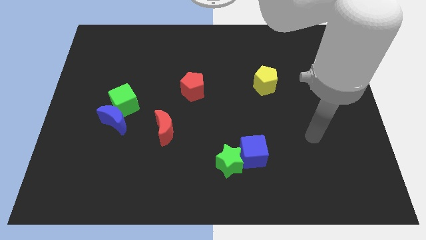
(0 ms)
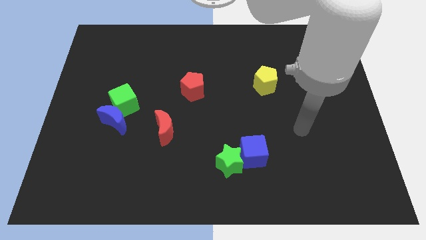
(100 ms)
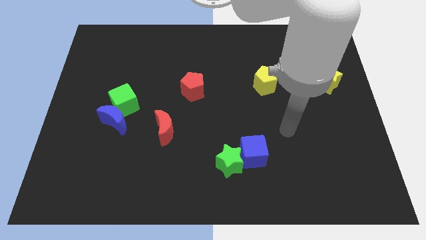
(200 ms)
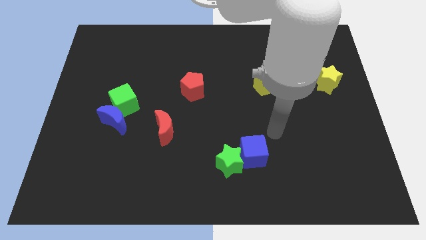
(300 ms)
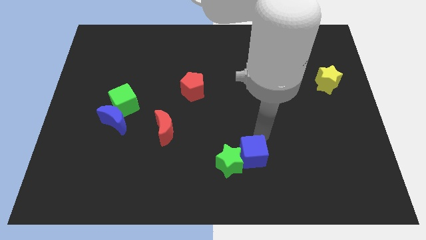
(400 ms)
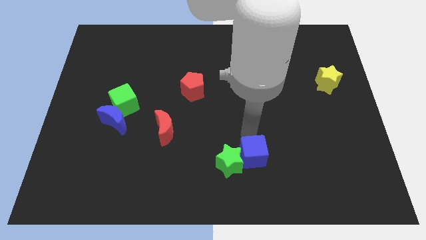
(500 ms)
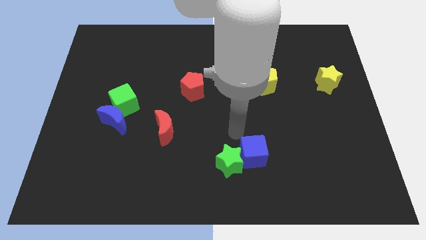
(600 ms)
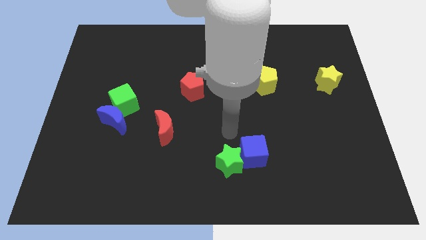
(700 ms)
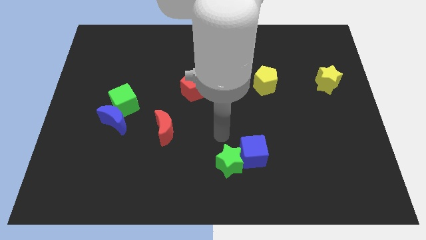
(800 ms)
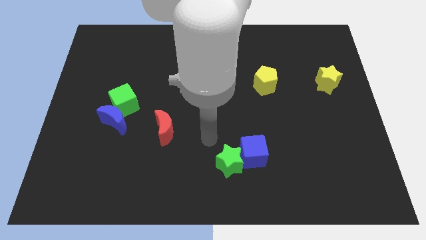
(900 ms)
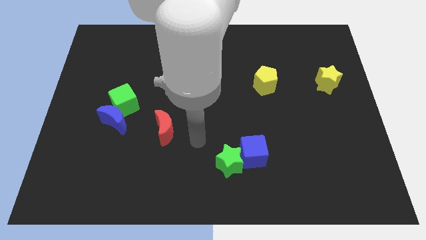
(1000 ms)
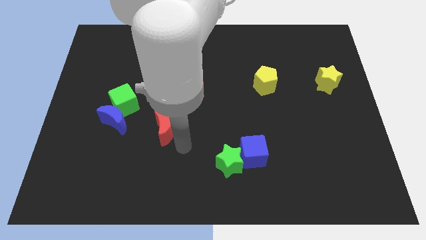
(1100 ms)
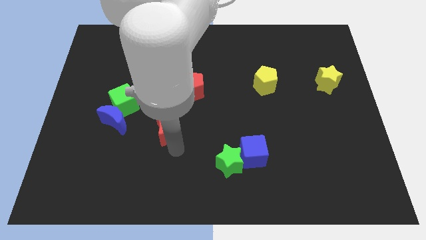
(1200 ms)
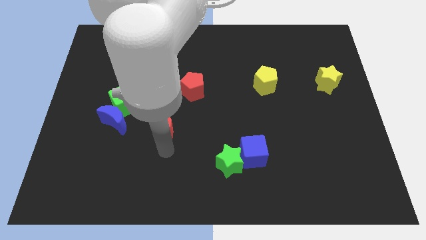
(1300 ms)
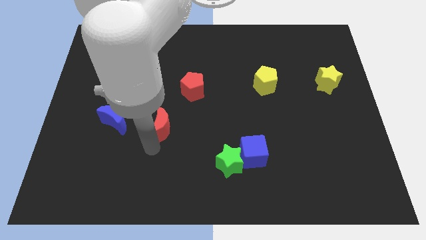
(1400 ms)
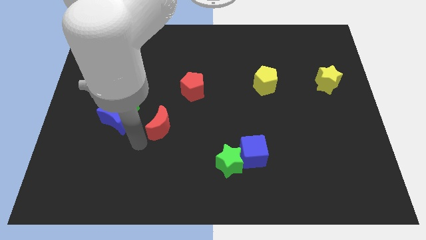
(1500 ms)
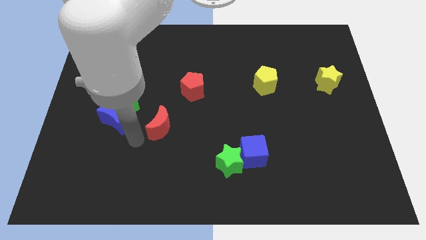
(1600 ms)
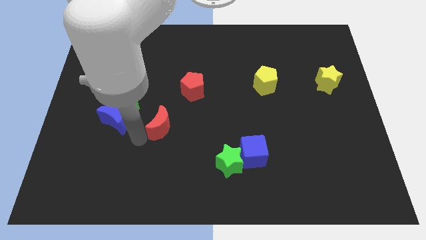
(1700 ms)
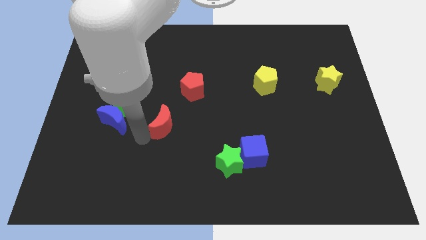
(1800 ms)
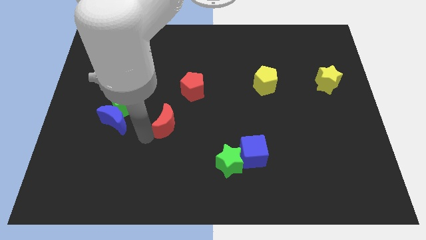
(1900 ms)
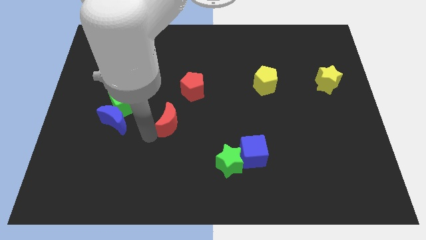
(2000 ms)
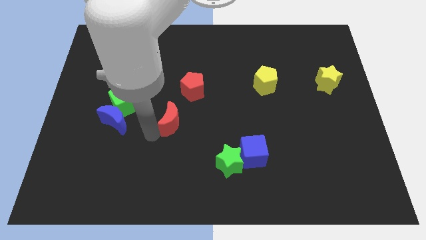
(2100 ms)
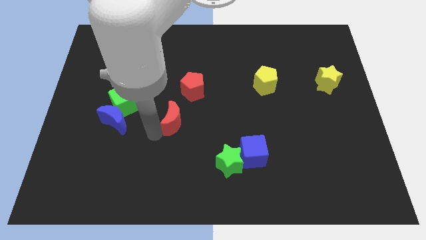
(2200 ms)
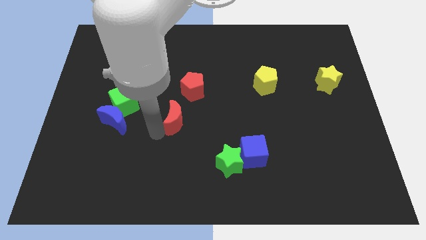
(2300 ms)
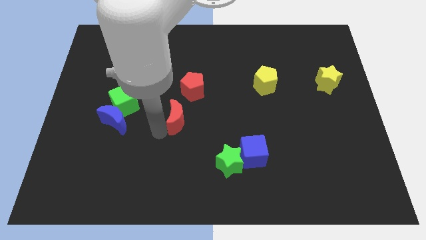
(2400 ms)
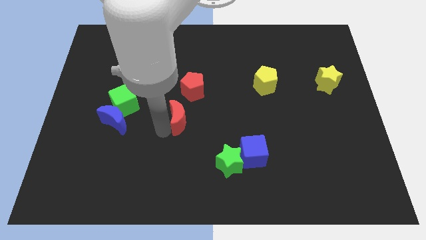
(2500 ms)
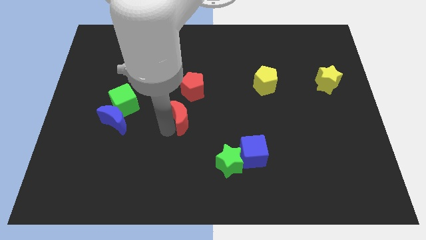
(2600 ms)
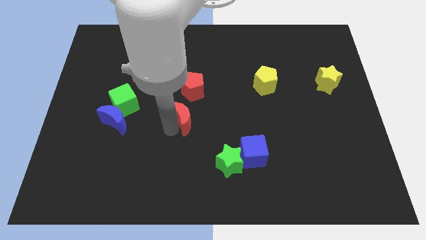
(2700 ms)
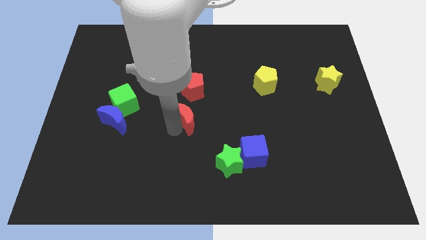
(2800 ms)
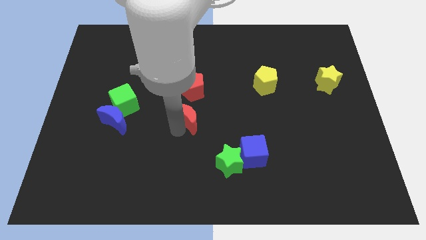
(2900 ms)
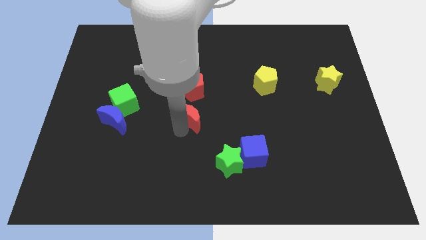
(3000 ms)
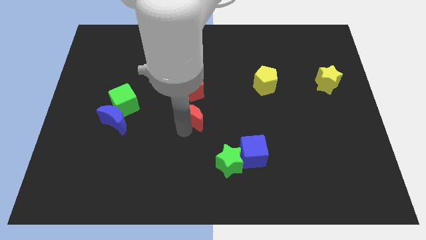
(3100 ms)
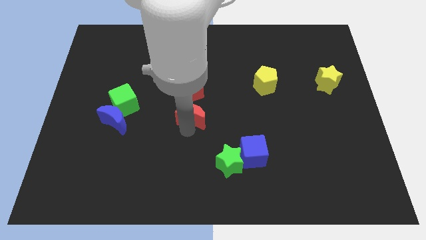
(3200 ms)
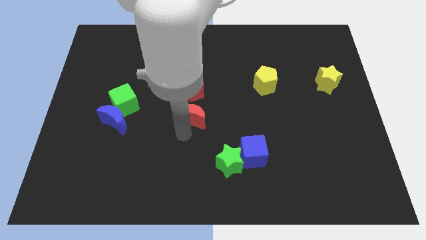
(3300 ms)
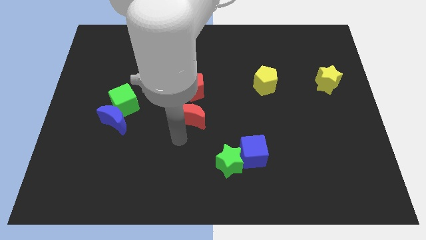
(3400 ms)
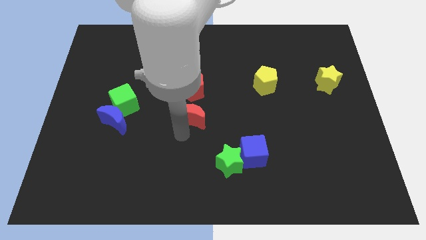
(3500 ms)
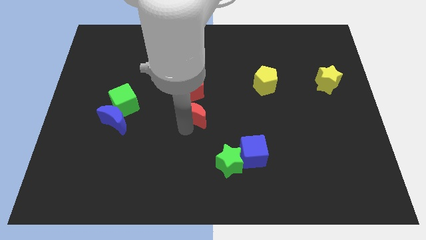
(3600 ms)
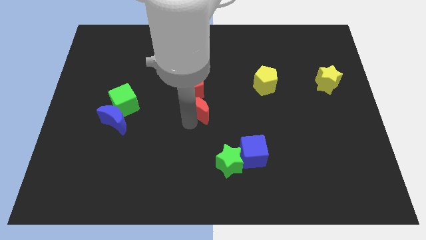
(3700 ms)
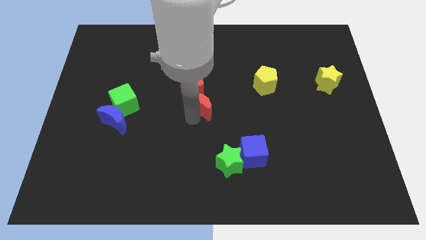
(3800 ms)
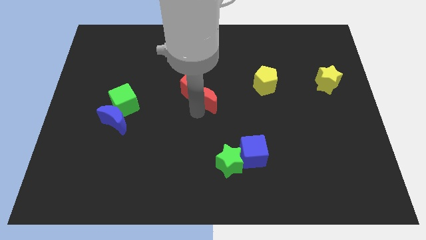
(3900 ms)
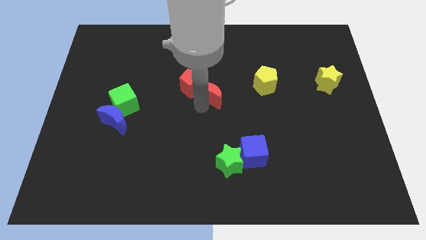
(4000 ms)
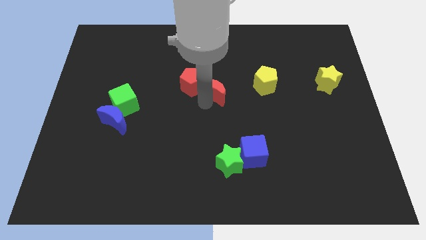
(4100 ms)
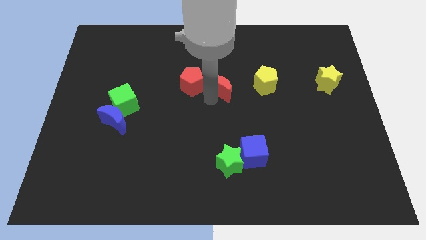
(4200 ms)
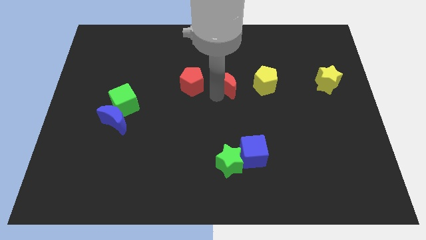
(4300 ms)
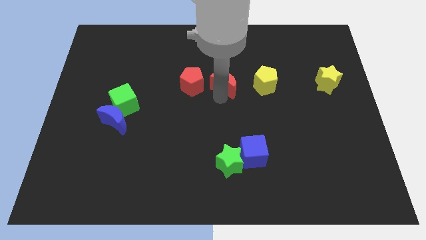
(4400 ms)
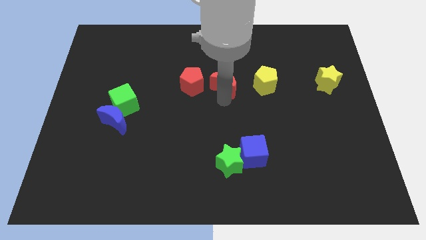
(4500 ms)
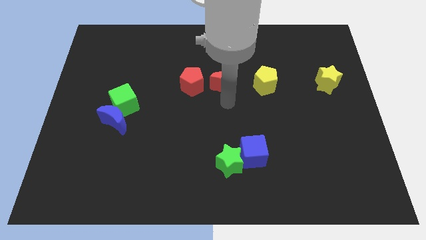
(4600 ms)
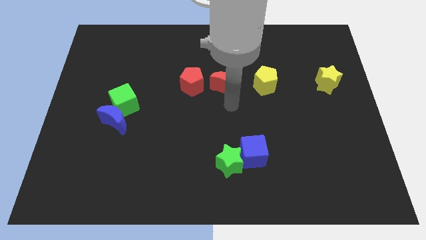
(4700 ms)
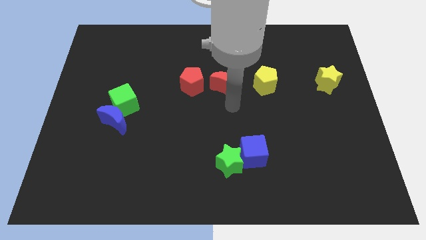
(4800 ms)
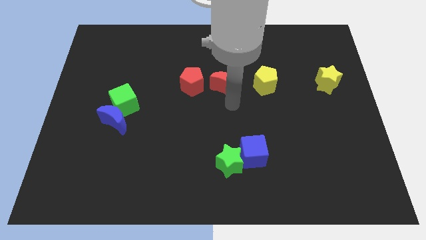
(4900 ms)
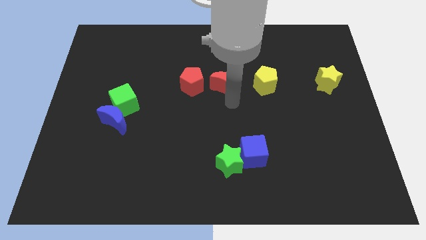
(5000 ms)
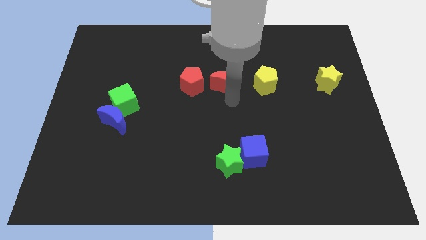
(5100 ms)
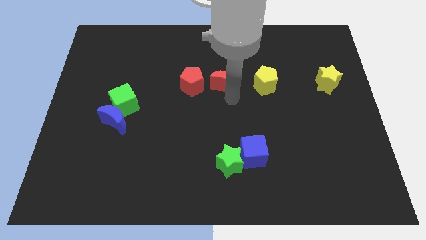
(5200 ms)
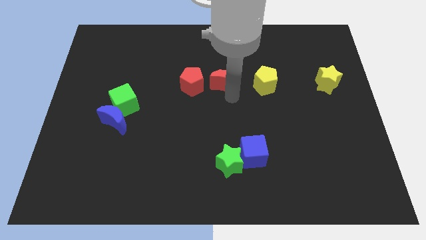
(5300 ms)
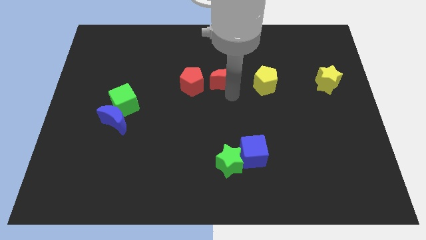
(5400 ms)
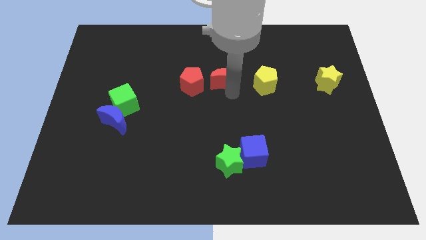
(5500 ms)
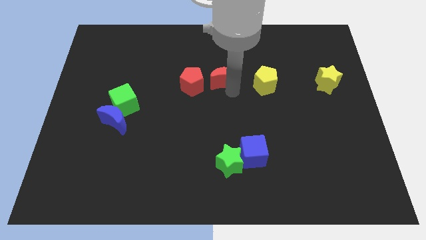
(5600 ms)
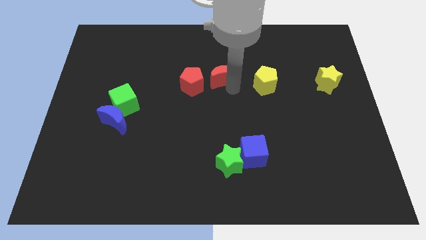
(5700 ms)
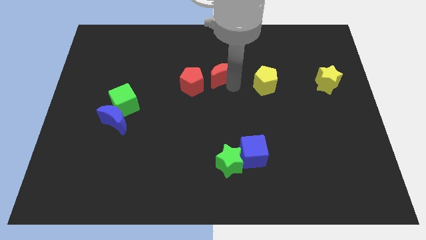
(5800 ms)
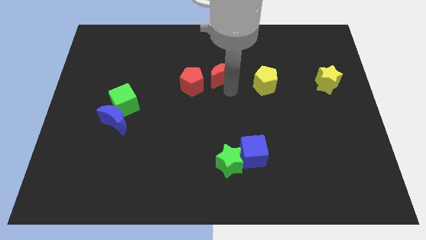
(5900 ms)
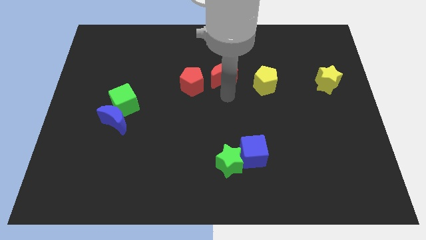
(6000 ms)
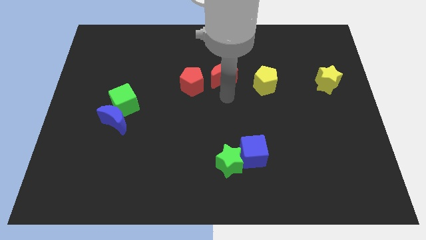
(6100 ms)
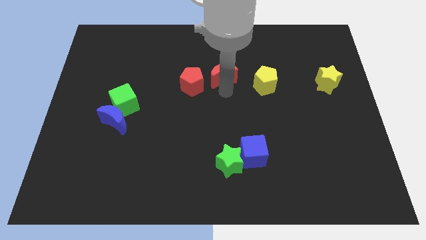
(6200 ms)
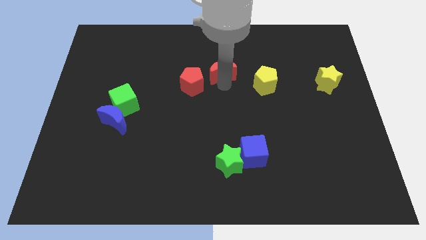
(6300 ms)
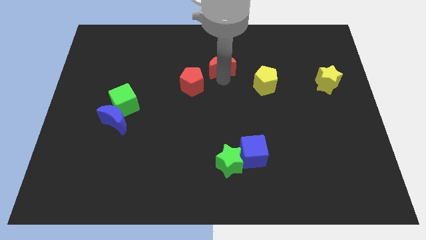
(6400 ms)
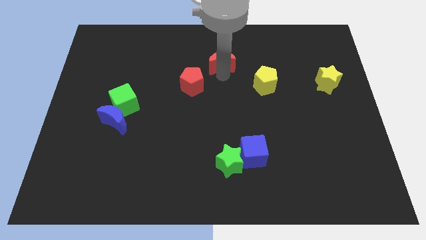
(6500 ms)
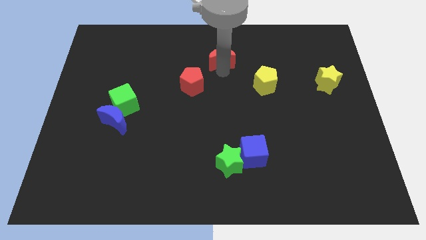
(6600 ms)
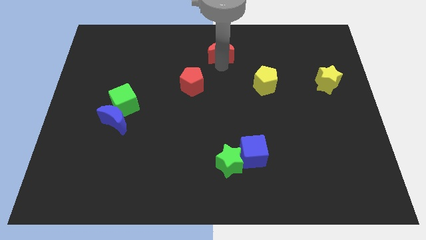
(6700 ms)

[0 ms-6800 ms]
put the red moon to the top side

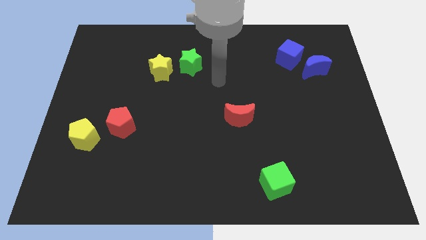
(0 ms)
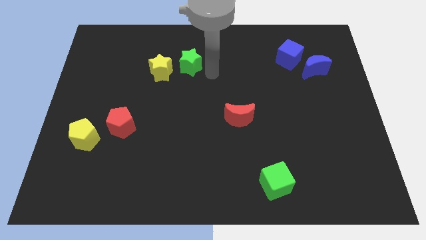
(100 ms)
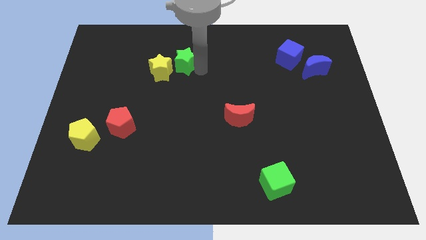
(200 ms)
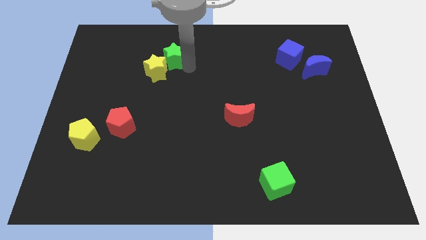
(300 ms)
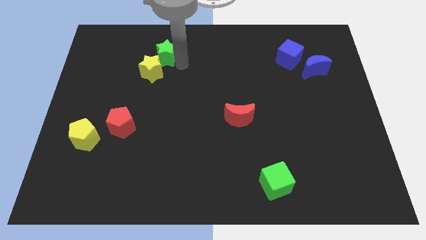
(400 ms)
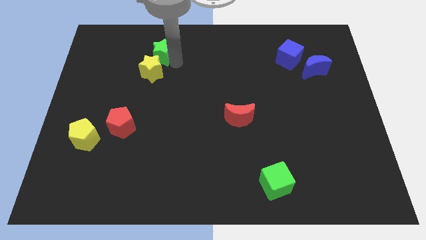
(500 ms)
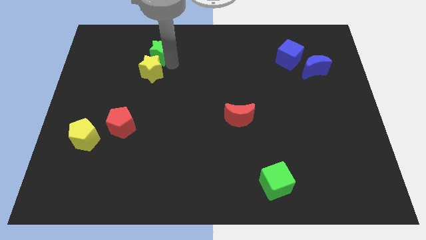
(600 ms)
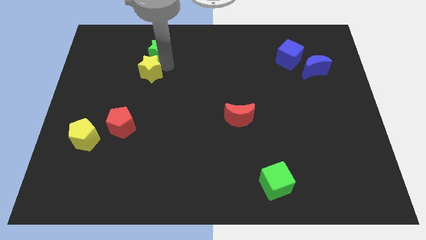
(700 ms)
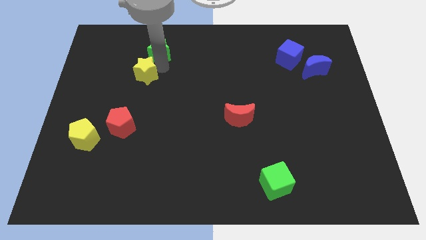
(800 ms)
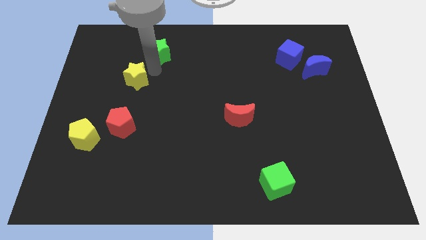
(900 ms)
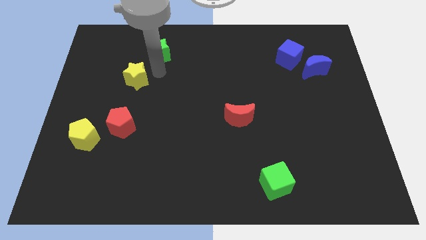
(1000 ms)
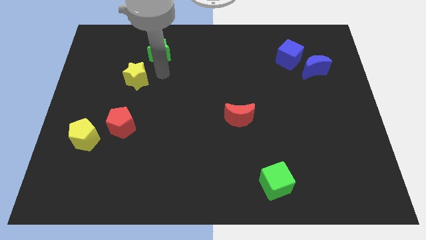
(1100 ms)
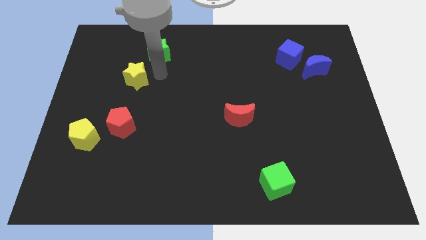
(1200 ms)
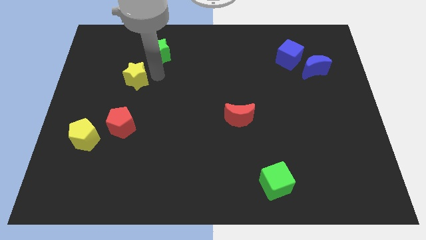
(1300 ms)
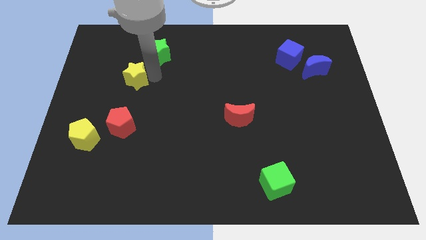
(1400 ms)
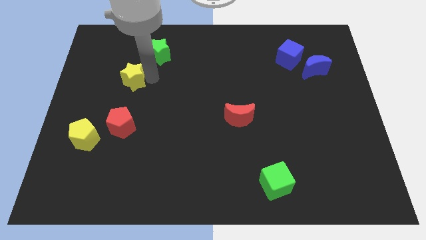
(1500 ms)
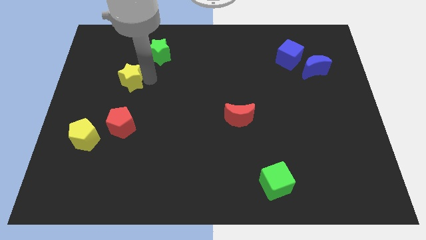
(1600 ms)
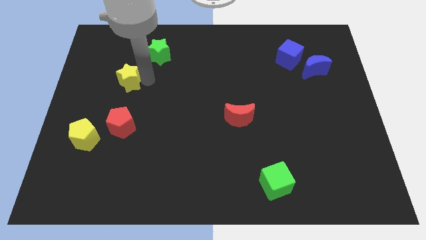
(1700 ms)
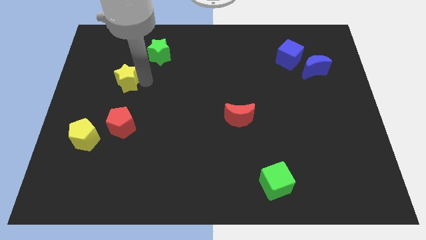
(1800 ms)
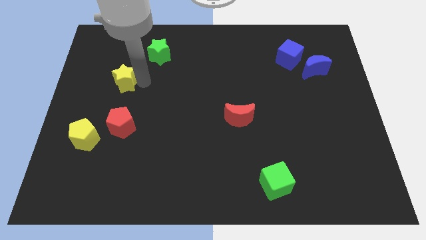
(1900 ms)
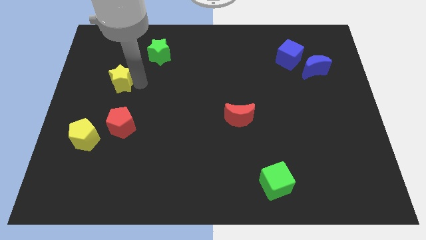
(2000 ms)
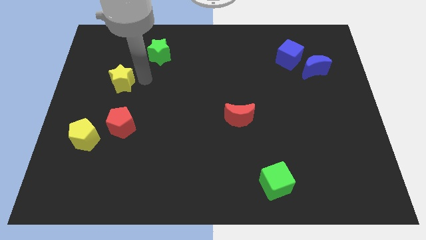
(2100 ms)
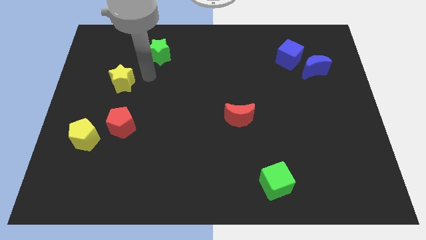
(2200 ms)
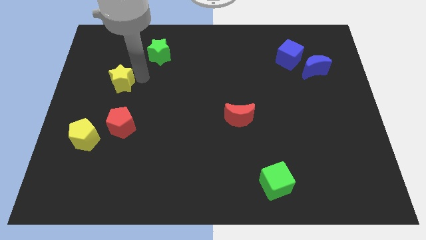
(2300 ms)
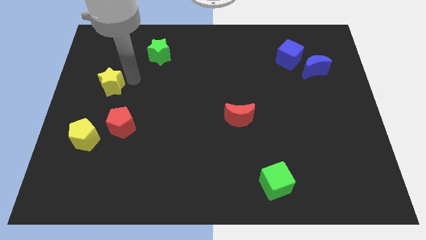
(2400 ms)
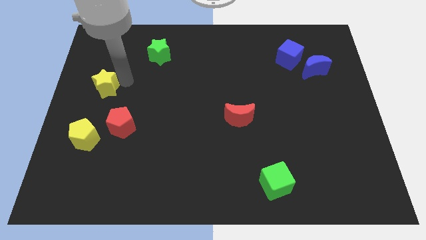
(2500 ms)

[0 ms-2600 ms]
push the yellow star to the left side
